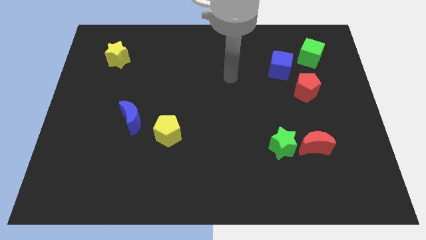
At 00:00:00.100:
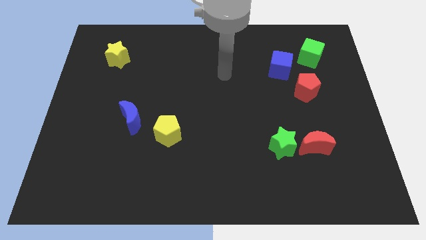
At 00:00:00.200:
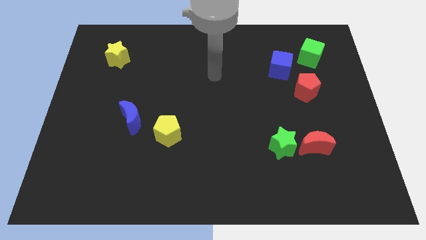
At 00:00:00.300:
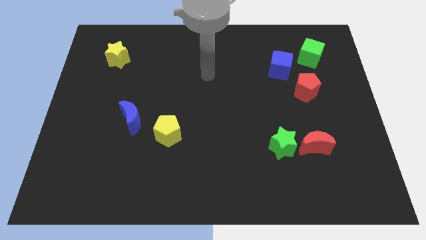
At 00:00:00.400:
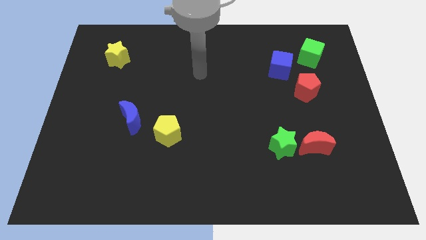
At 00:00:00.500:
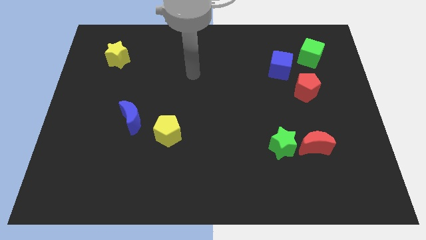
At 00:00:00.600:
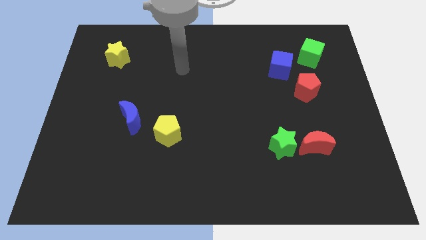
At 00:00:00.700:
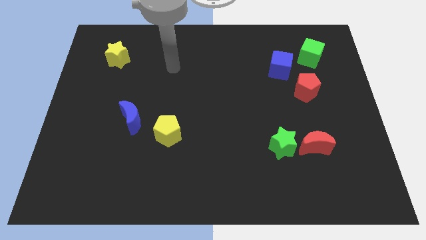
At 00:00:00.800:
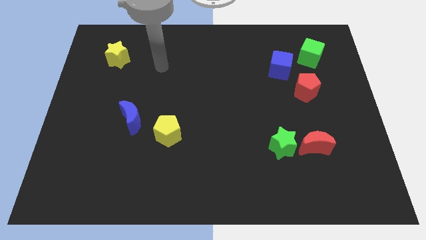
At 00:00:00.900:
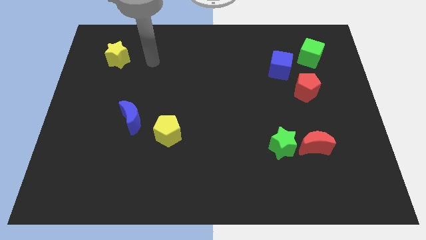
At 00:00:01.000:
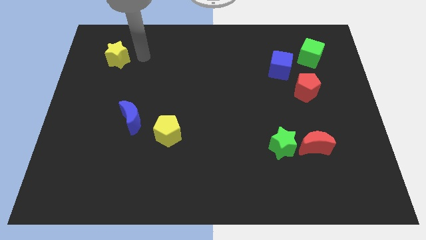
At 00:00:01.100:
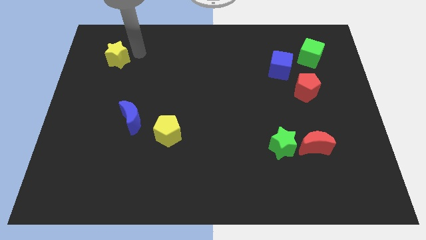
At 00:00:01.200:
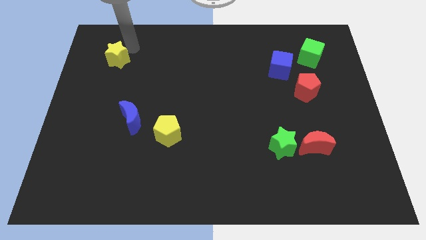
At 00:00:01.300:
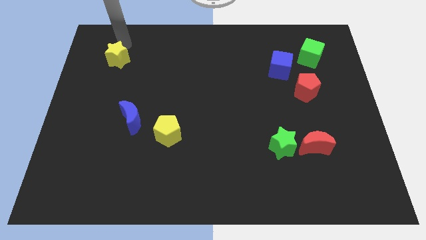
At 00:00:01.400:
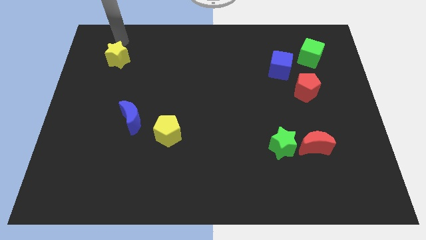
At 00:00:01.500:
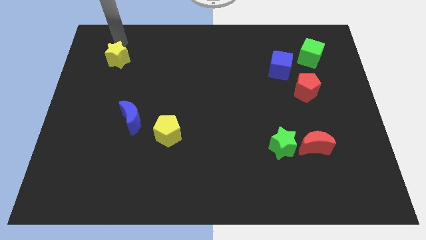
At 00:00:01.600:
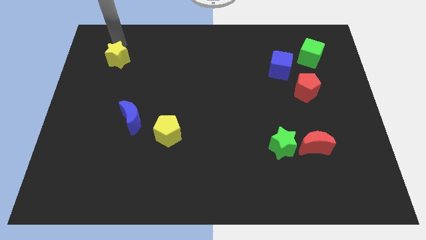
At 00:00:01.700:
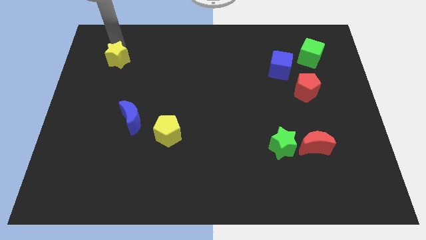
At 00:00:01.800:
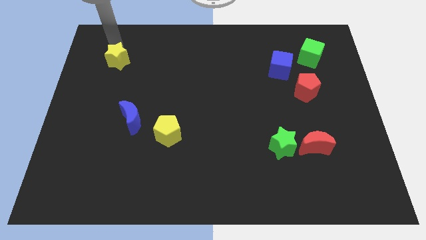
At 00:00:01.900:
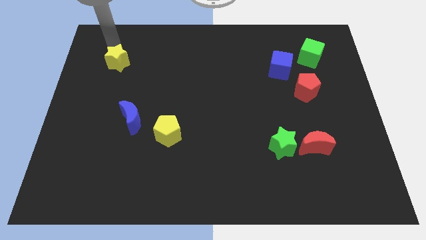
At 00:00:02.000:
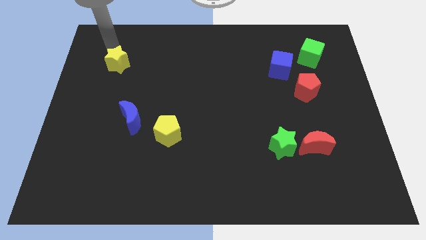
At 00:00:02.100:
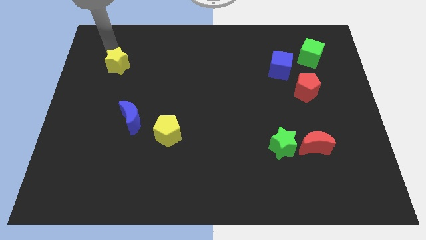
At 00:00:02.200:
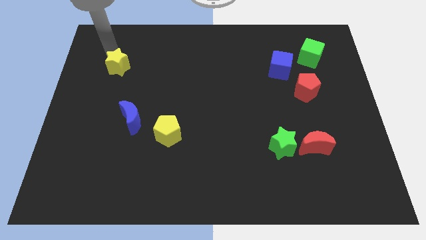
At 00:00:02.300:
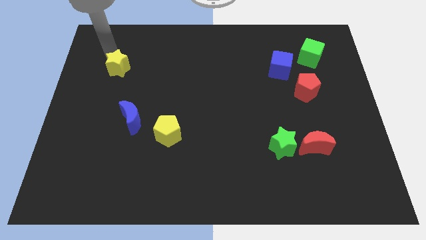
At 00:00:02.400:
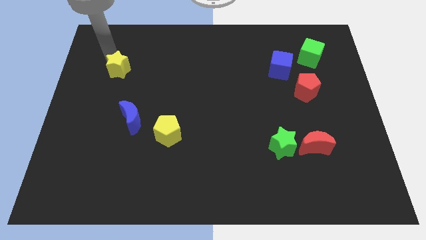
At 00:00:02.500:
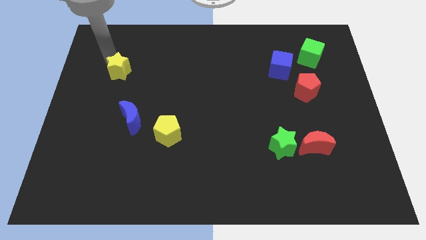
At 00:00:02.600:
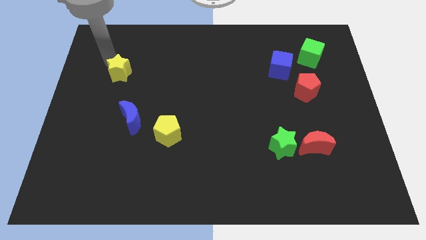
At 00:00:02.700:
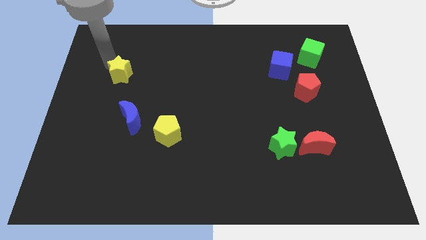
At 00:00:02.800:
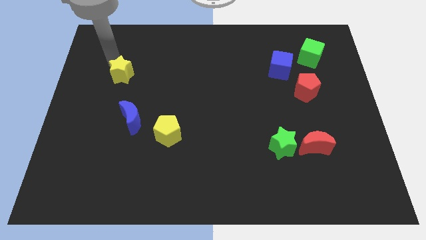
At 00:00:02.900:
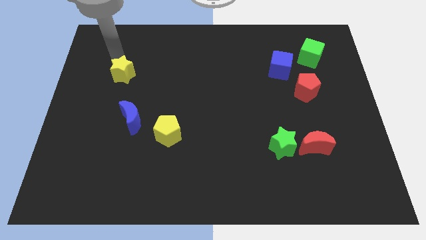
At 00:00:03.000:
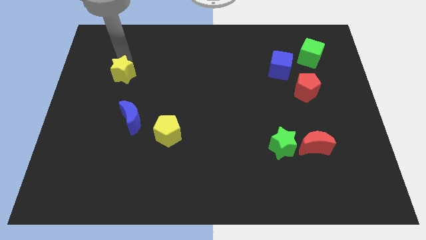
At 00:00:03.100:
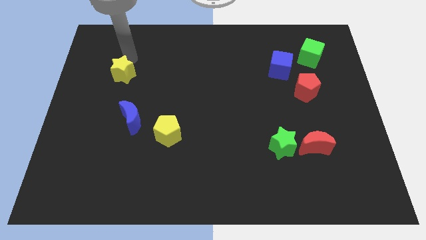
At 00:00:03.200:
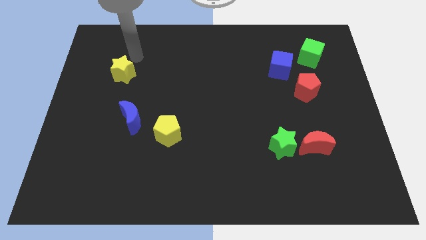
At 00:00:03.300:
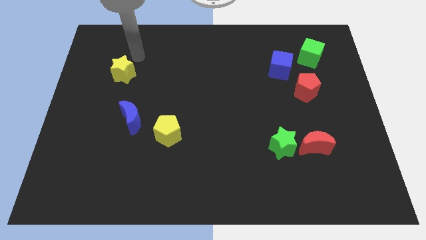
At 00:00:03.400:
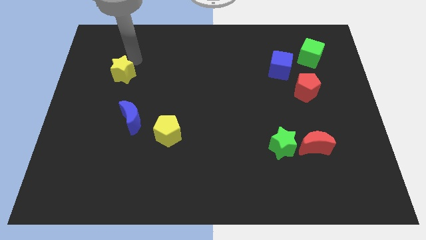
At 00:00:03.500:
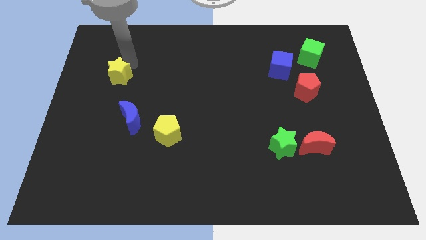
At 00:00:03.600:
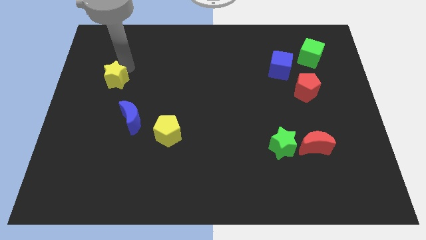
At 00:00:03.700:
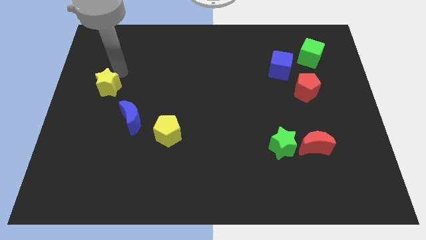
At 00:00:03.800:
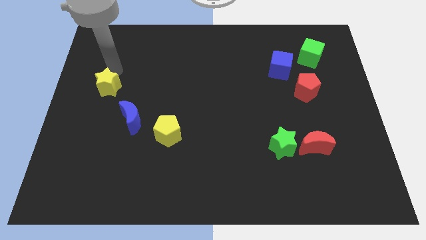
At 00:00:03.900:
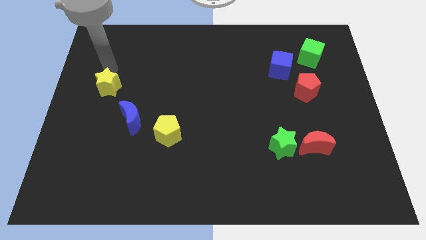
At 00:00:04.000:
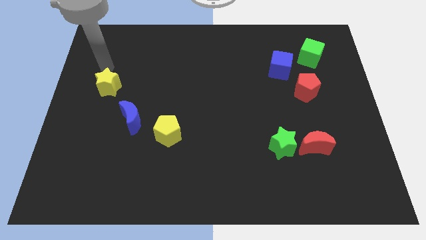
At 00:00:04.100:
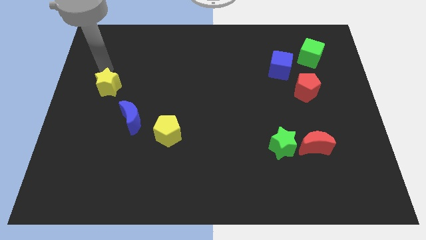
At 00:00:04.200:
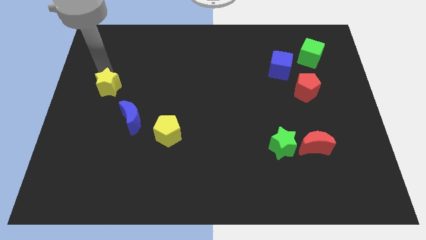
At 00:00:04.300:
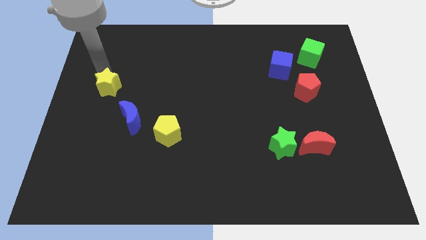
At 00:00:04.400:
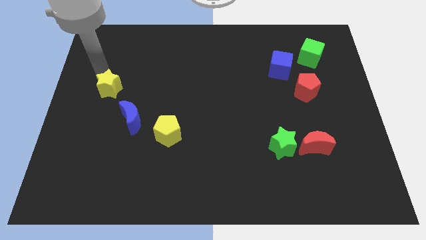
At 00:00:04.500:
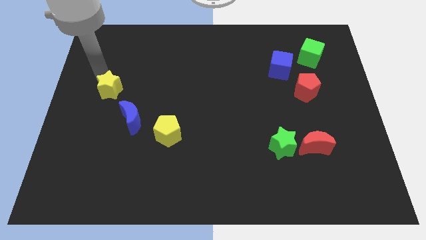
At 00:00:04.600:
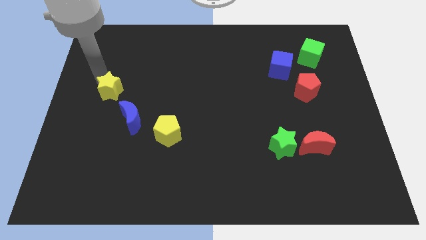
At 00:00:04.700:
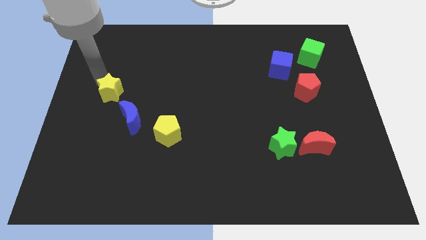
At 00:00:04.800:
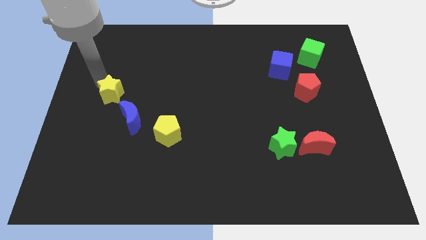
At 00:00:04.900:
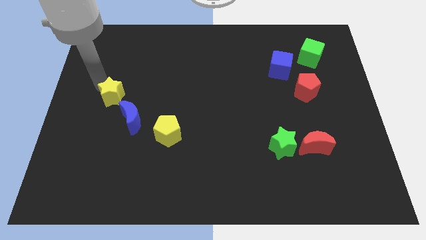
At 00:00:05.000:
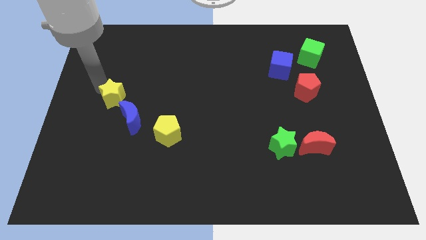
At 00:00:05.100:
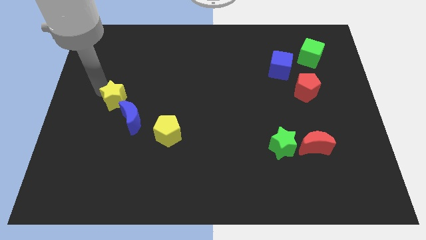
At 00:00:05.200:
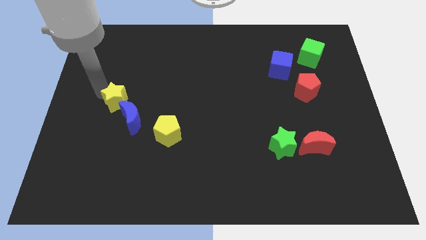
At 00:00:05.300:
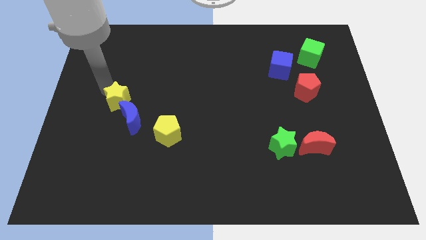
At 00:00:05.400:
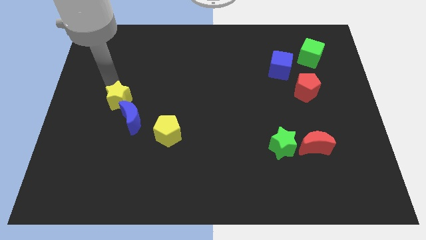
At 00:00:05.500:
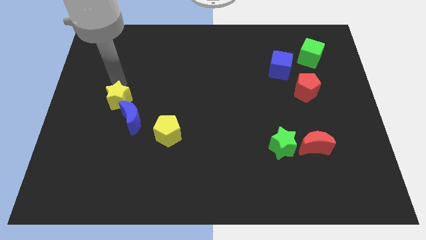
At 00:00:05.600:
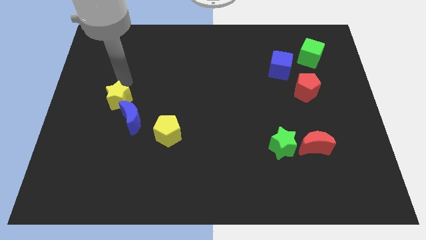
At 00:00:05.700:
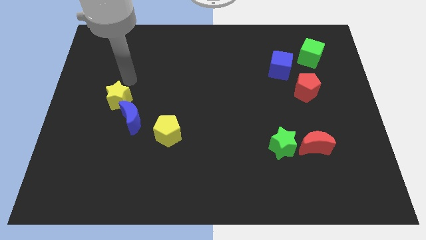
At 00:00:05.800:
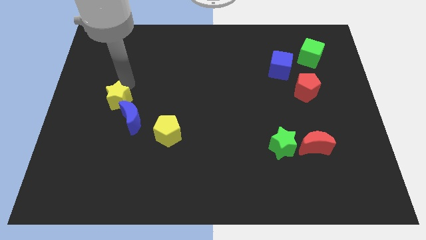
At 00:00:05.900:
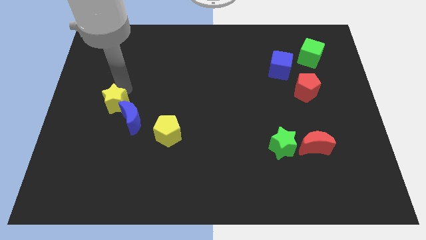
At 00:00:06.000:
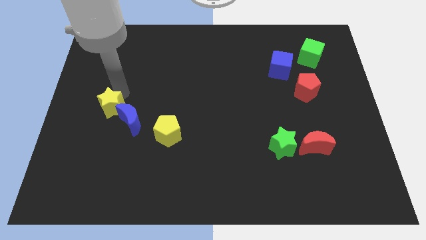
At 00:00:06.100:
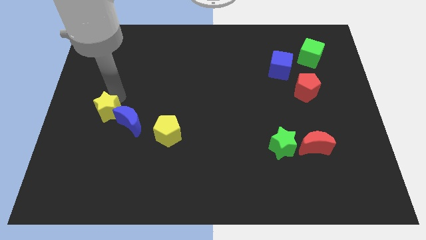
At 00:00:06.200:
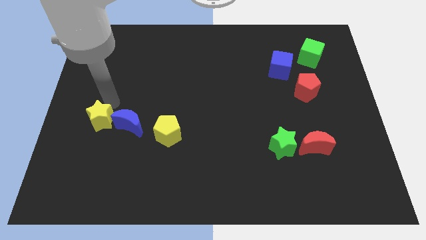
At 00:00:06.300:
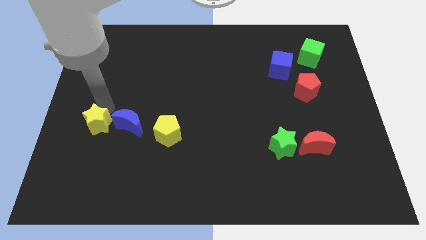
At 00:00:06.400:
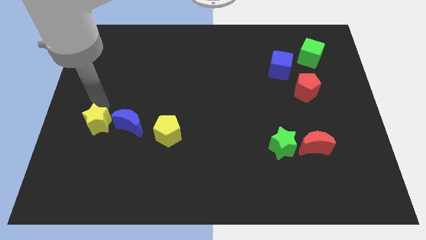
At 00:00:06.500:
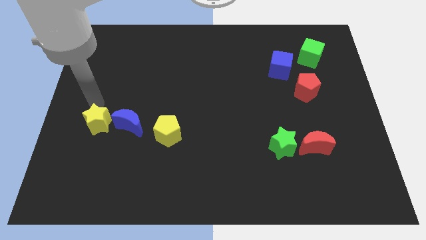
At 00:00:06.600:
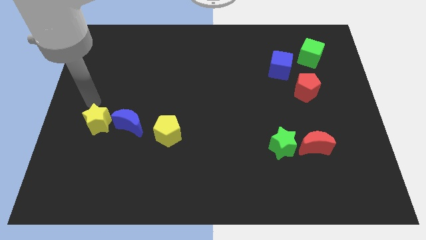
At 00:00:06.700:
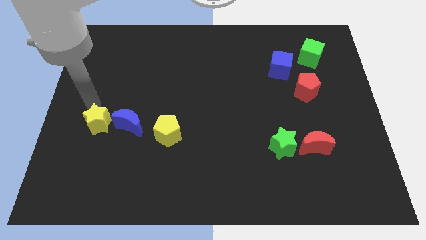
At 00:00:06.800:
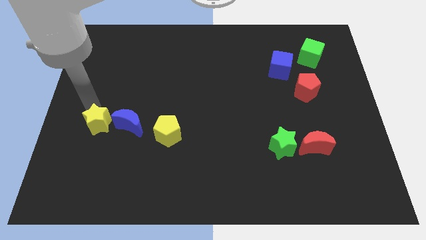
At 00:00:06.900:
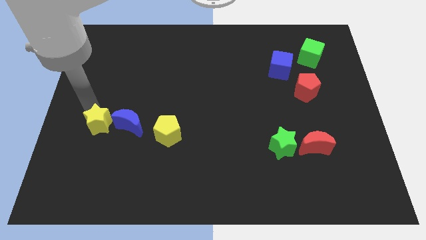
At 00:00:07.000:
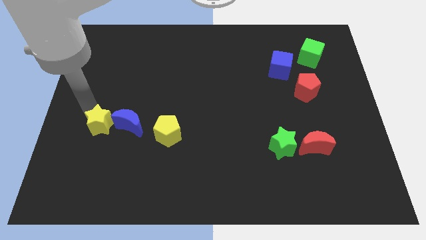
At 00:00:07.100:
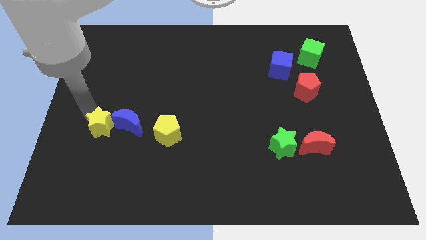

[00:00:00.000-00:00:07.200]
push the yellow star to the bottom left of the blue moon

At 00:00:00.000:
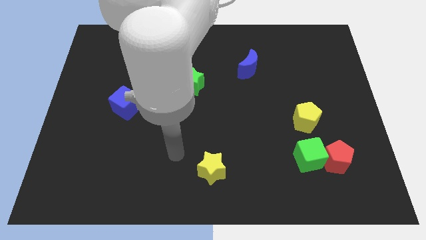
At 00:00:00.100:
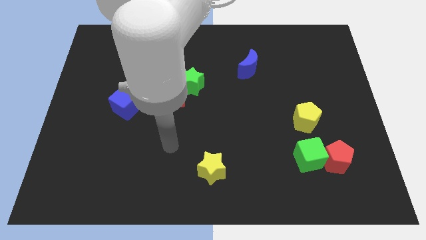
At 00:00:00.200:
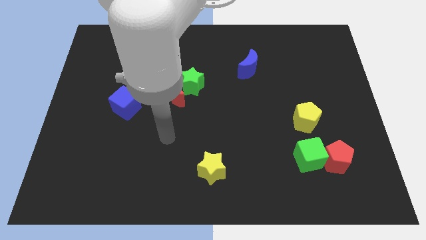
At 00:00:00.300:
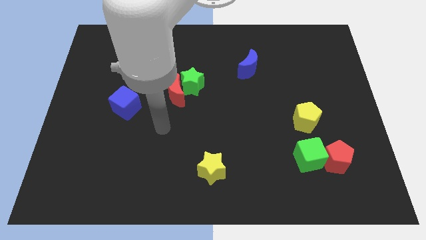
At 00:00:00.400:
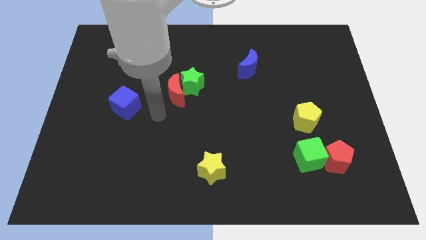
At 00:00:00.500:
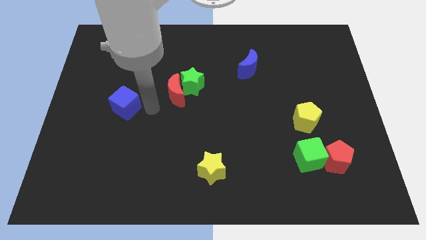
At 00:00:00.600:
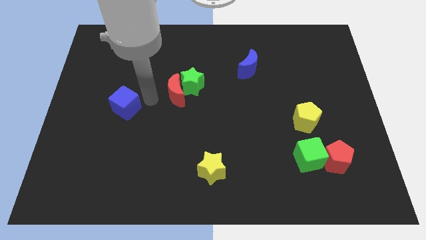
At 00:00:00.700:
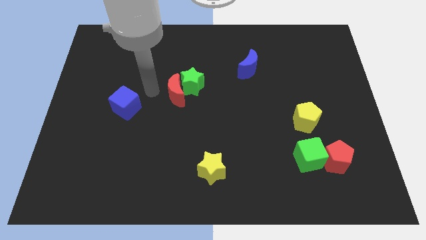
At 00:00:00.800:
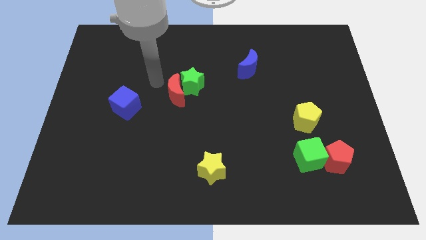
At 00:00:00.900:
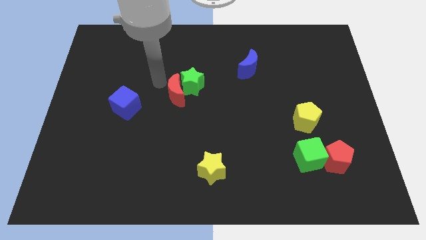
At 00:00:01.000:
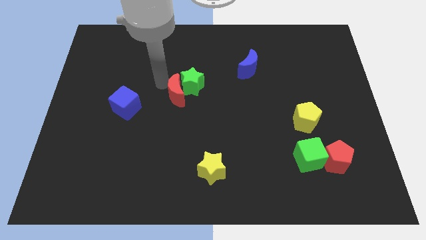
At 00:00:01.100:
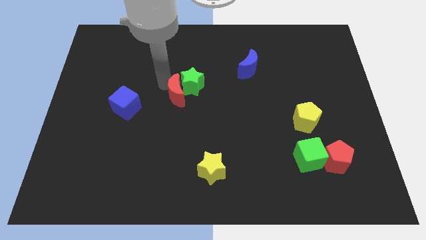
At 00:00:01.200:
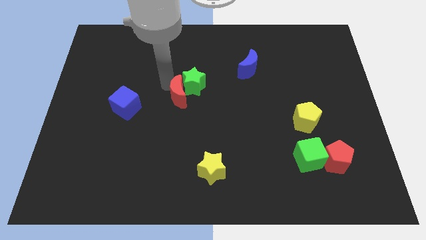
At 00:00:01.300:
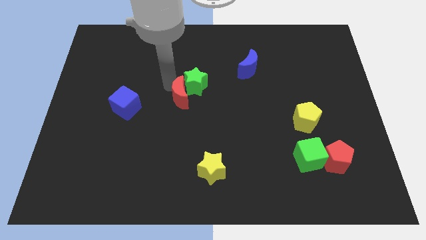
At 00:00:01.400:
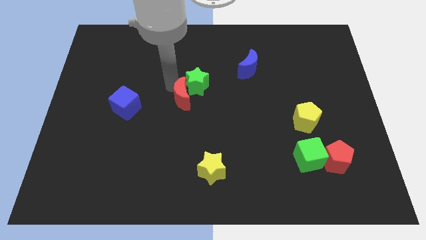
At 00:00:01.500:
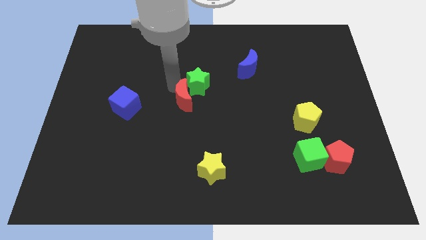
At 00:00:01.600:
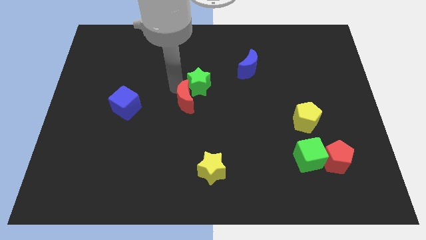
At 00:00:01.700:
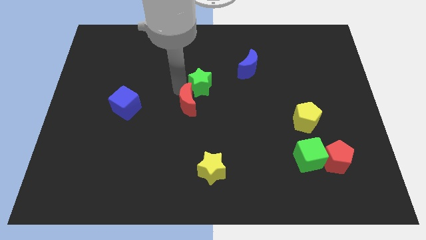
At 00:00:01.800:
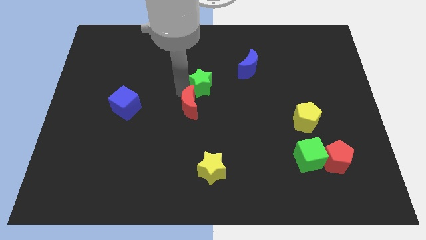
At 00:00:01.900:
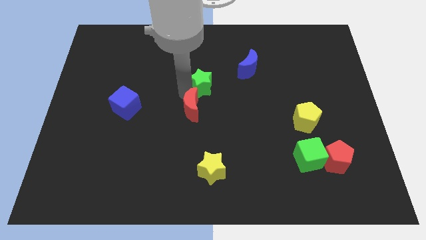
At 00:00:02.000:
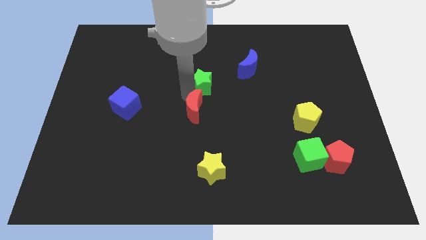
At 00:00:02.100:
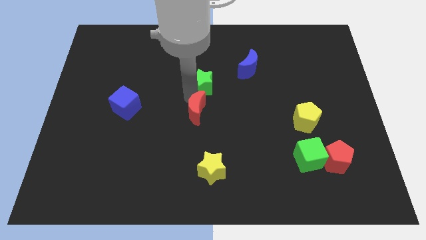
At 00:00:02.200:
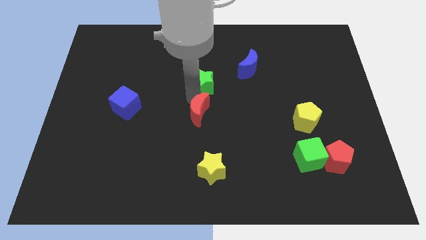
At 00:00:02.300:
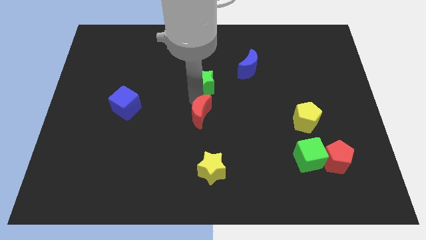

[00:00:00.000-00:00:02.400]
move the red moon to the top side of the yellow star
